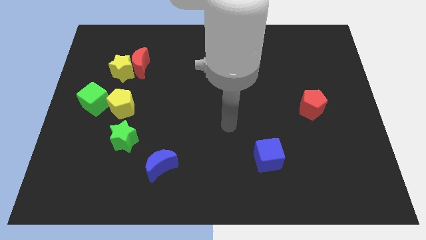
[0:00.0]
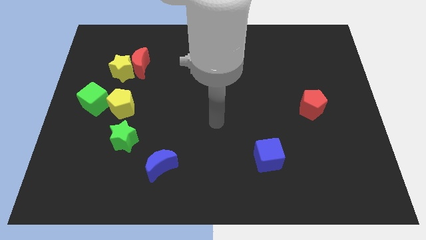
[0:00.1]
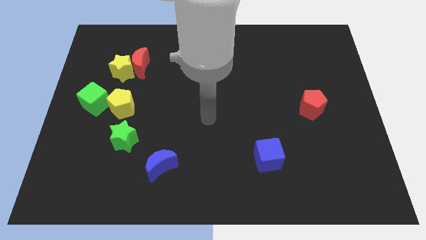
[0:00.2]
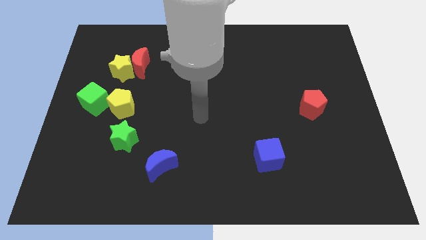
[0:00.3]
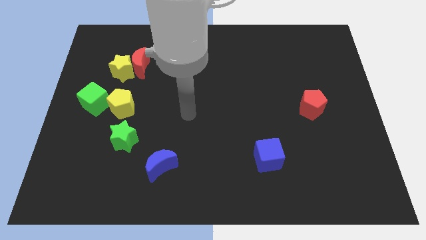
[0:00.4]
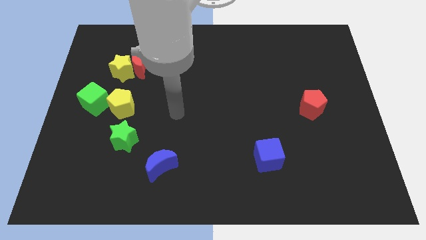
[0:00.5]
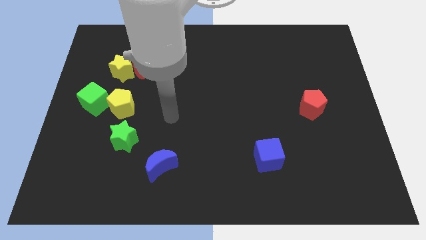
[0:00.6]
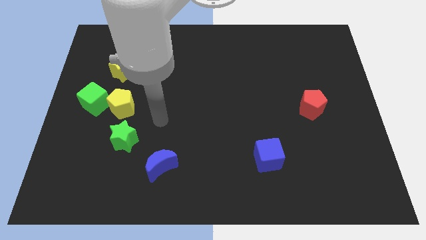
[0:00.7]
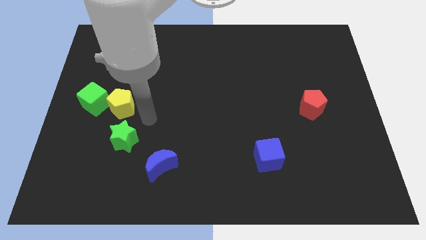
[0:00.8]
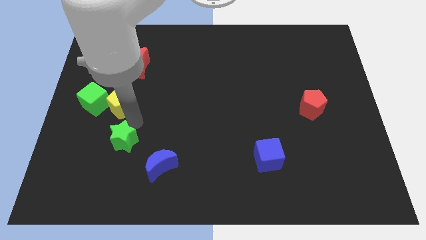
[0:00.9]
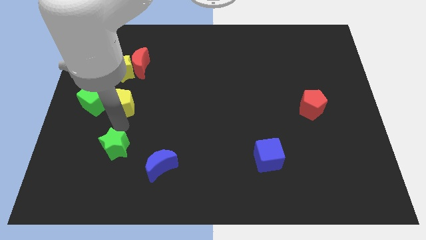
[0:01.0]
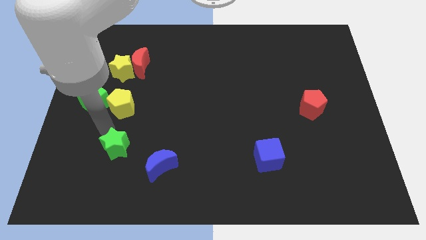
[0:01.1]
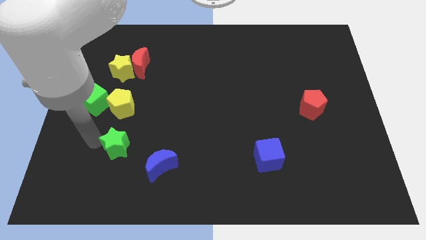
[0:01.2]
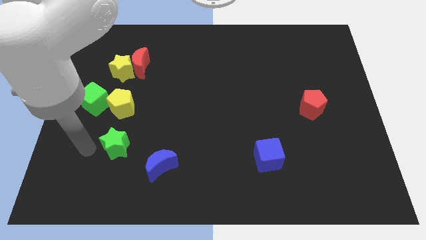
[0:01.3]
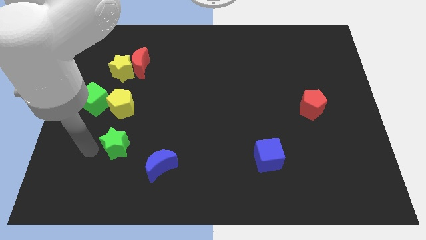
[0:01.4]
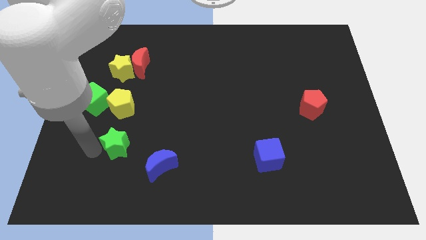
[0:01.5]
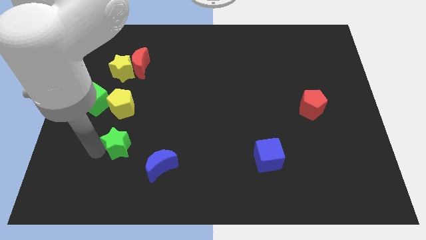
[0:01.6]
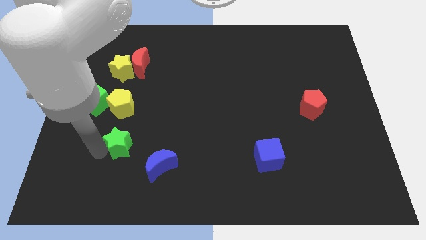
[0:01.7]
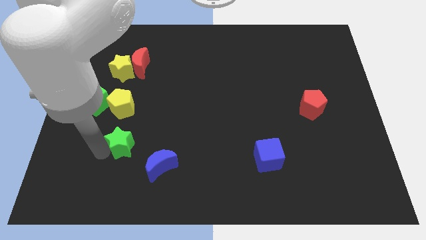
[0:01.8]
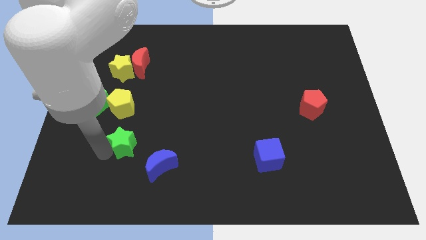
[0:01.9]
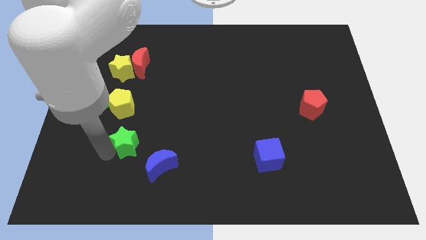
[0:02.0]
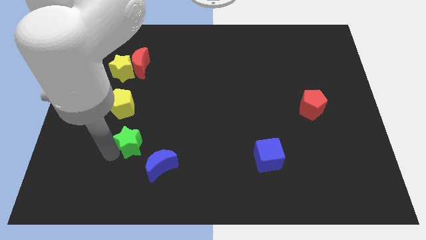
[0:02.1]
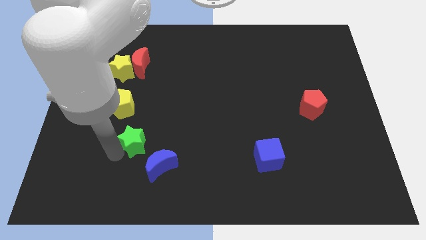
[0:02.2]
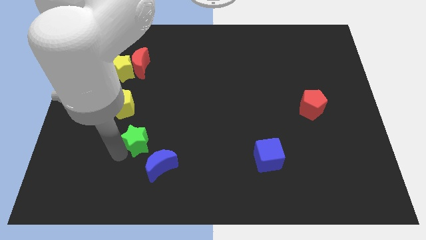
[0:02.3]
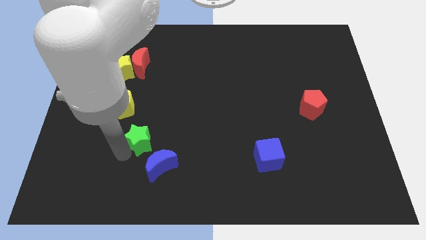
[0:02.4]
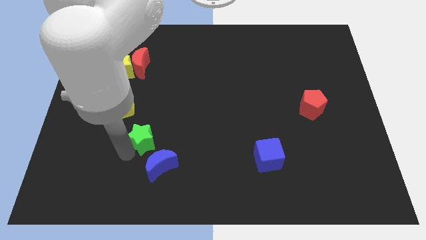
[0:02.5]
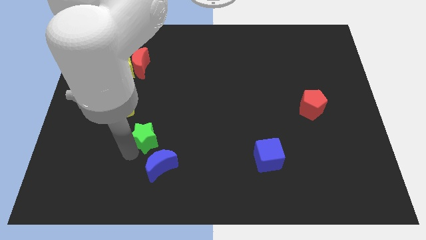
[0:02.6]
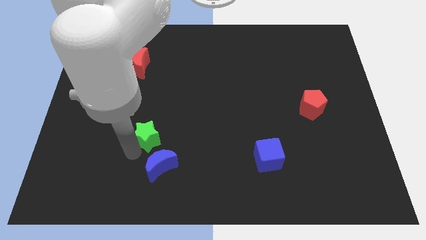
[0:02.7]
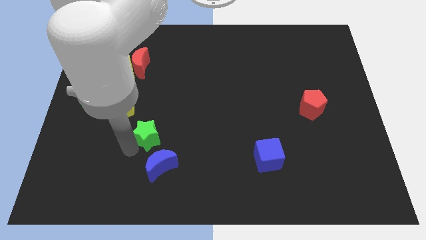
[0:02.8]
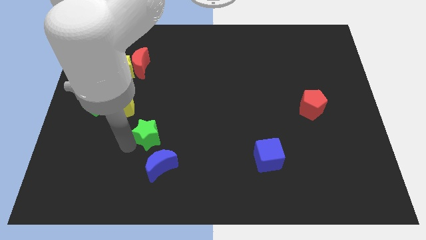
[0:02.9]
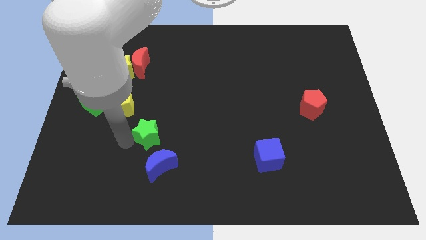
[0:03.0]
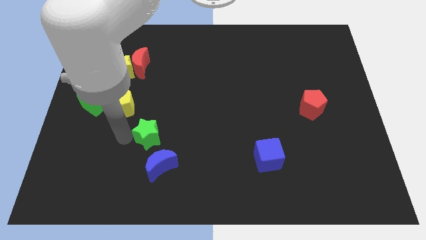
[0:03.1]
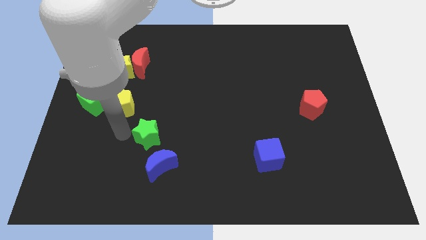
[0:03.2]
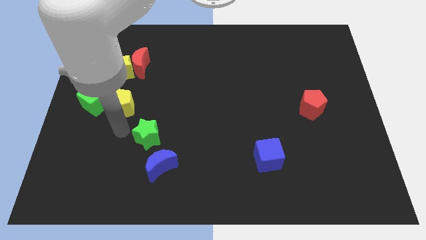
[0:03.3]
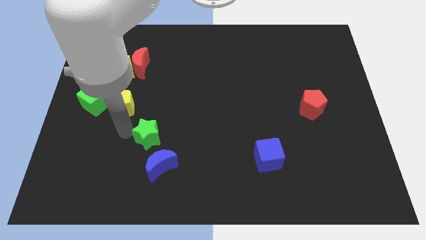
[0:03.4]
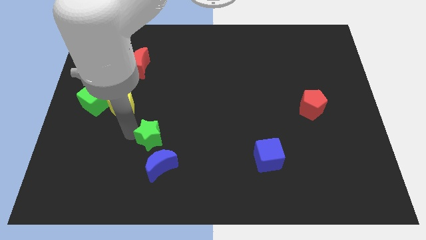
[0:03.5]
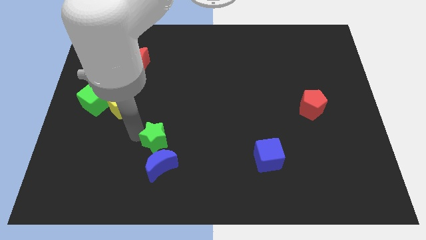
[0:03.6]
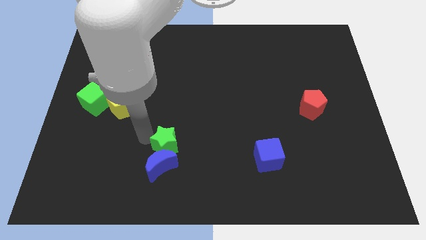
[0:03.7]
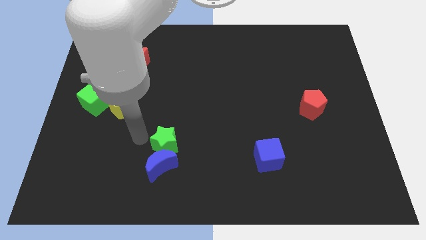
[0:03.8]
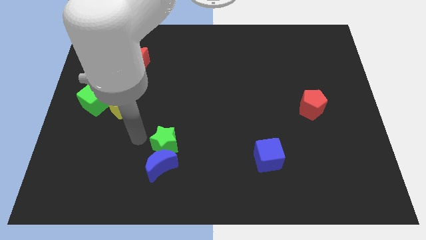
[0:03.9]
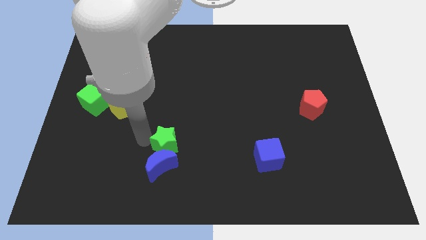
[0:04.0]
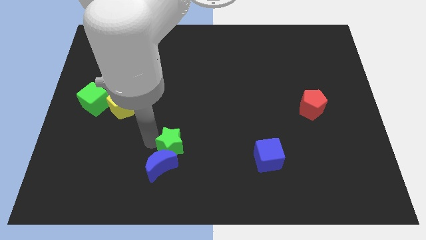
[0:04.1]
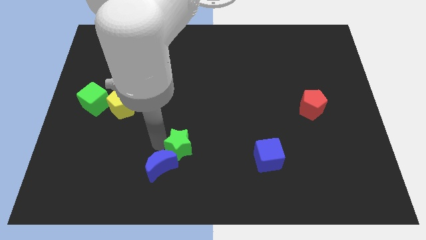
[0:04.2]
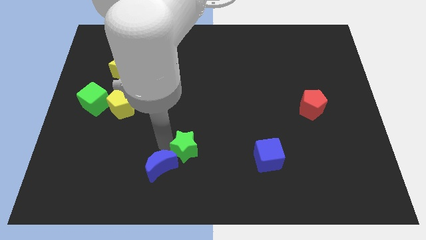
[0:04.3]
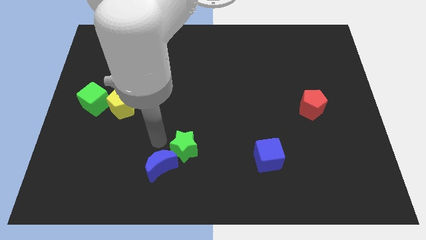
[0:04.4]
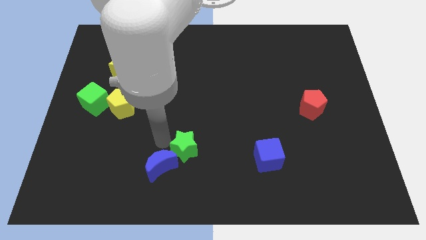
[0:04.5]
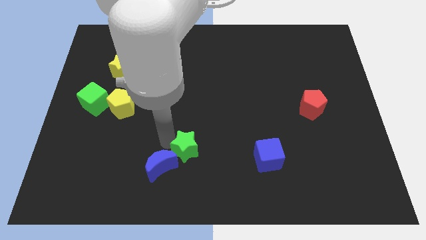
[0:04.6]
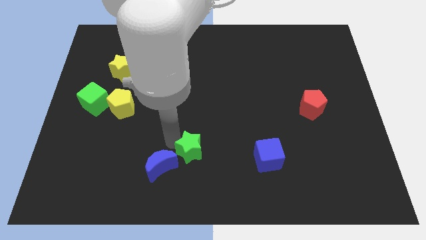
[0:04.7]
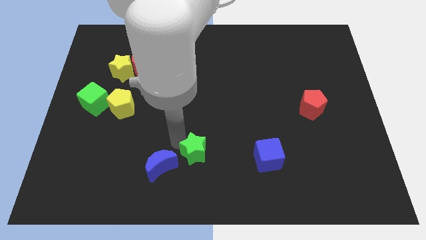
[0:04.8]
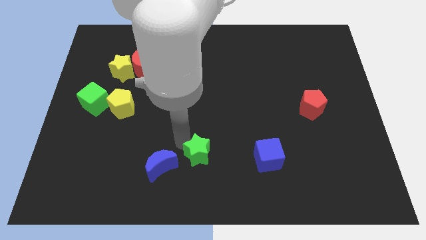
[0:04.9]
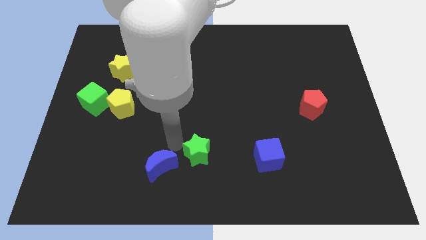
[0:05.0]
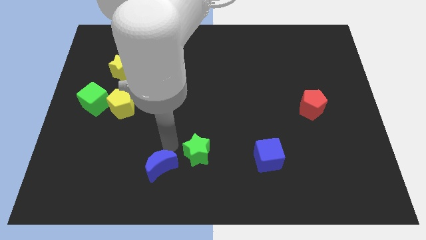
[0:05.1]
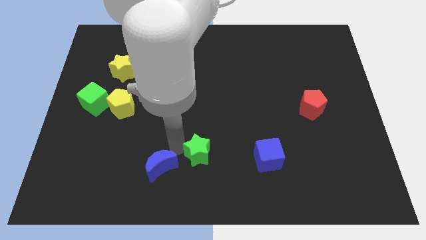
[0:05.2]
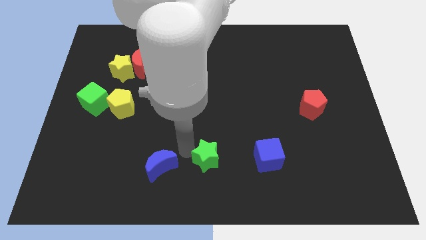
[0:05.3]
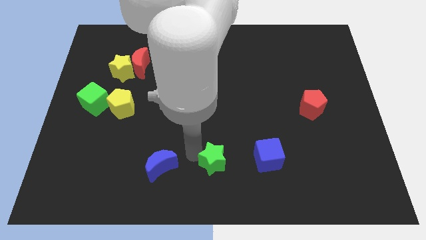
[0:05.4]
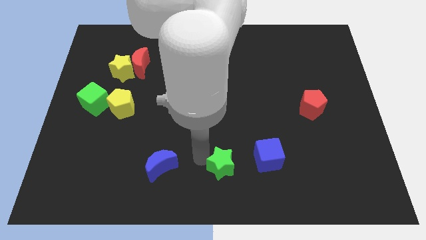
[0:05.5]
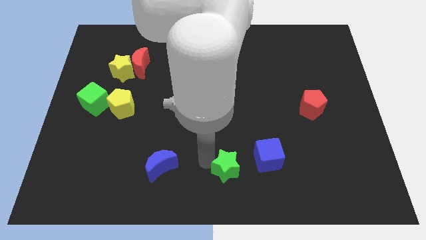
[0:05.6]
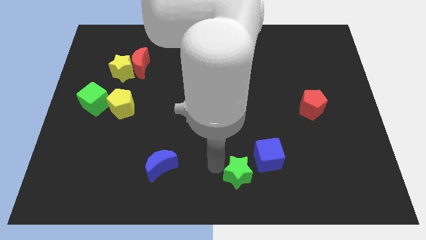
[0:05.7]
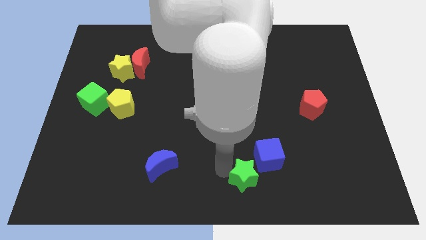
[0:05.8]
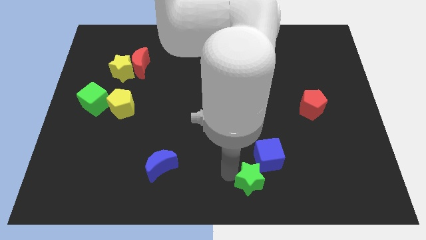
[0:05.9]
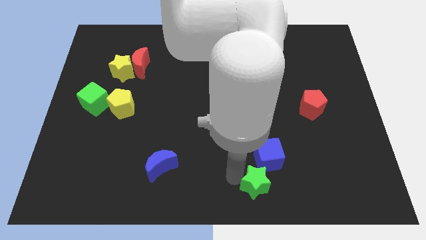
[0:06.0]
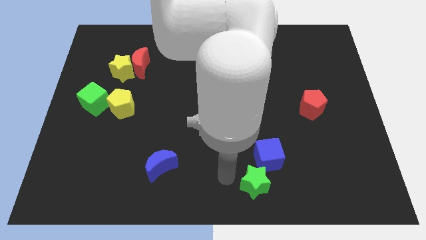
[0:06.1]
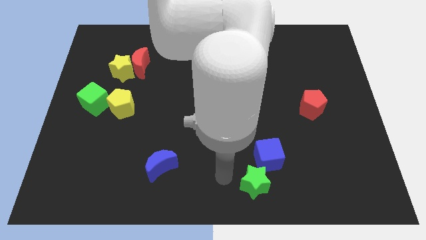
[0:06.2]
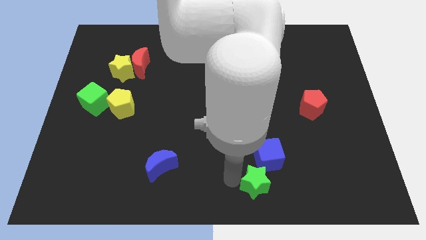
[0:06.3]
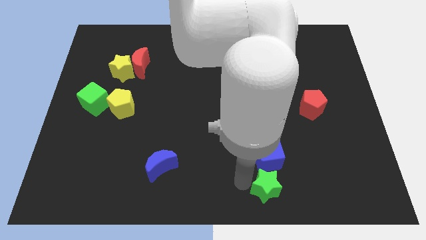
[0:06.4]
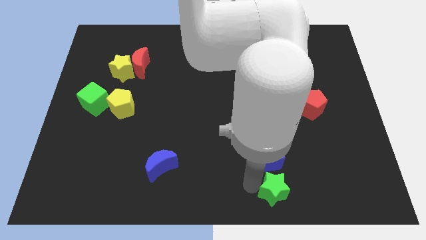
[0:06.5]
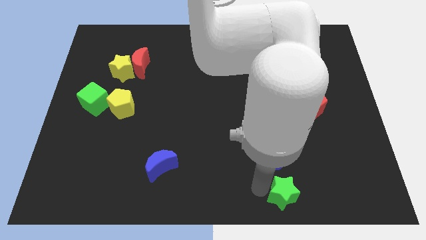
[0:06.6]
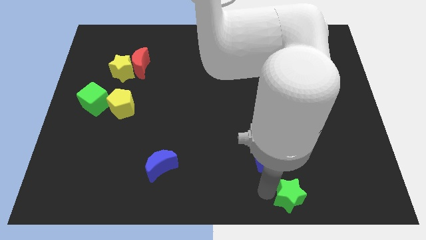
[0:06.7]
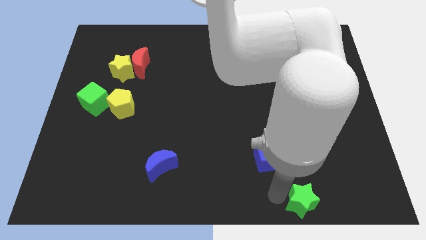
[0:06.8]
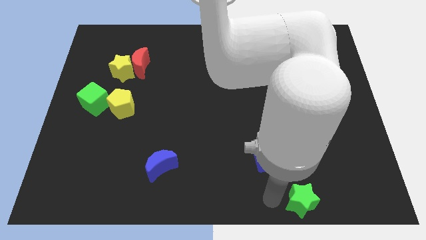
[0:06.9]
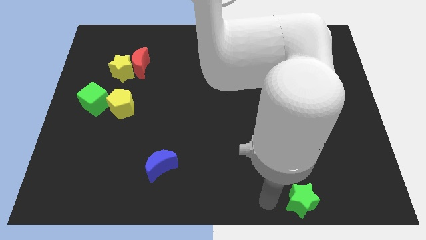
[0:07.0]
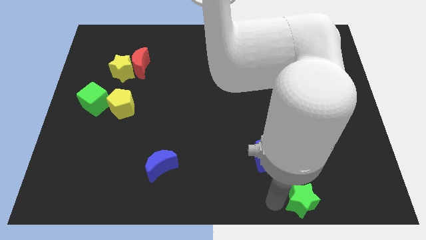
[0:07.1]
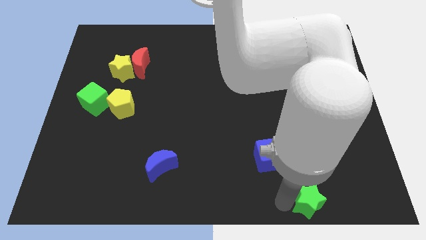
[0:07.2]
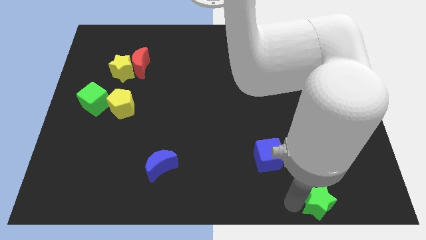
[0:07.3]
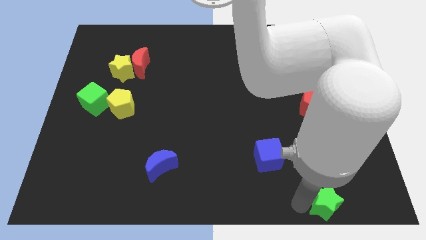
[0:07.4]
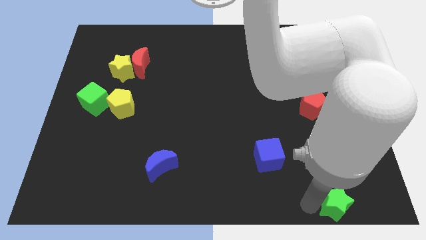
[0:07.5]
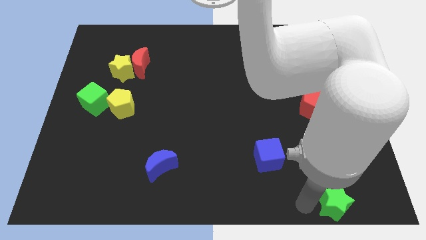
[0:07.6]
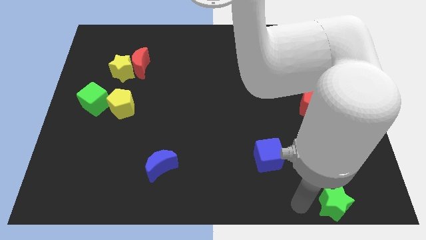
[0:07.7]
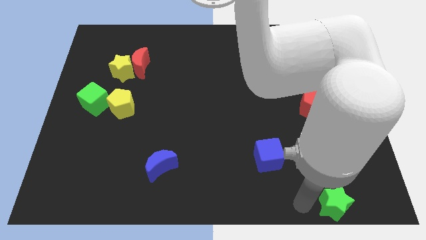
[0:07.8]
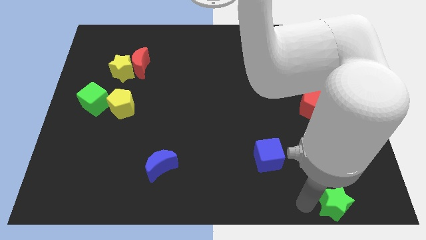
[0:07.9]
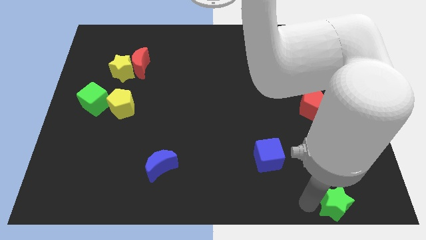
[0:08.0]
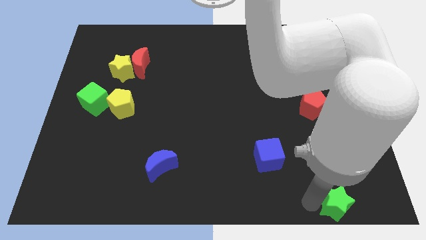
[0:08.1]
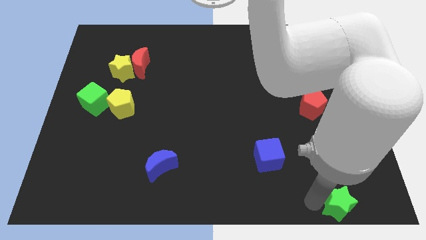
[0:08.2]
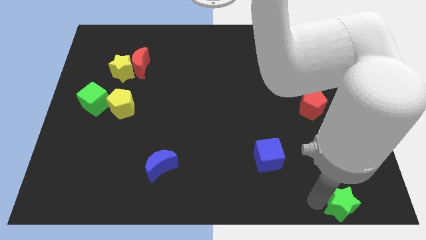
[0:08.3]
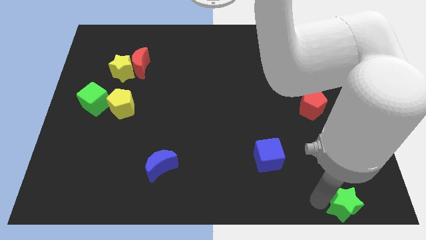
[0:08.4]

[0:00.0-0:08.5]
slide the green star to the bottom right corner
